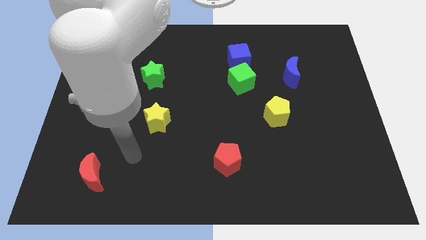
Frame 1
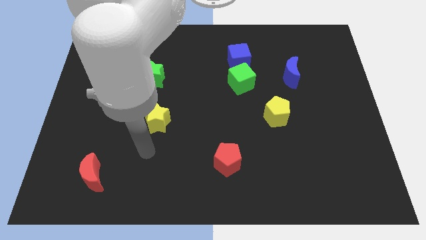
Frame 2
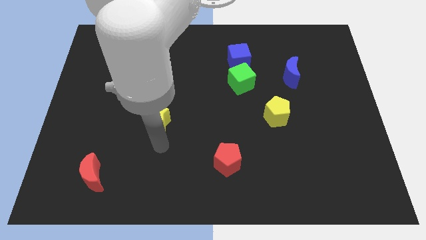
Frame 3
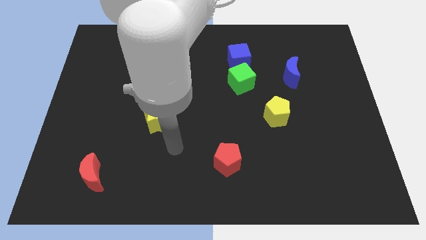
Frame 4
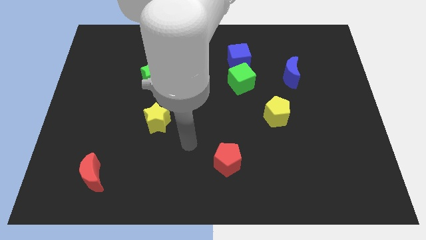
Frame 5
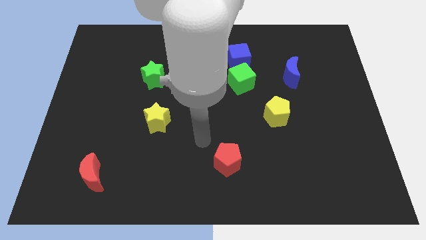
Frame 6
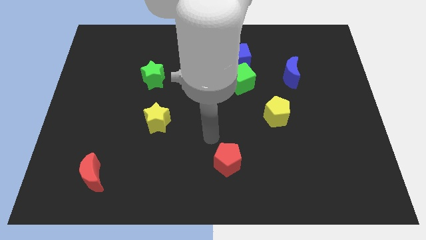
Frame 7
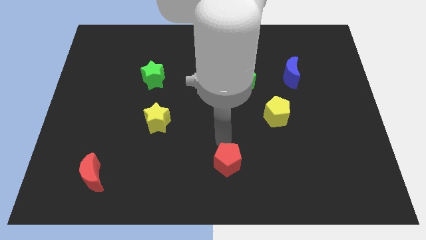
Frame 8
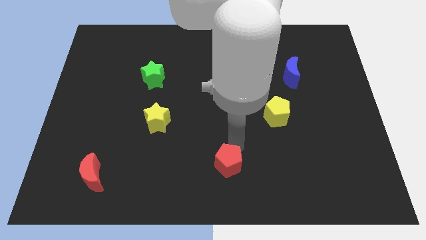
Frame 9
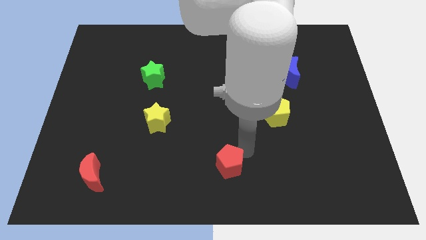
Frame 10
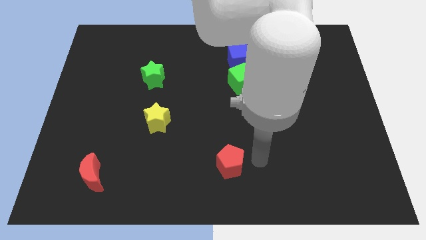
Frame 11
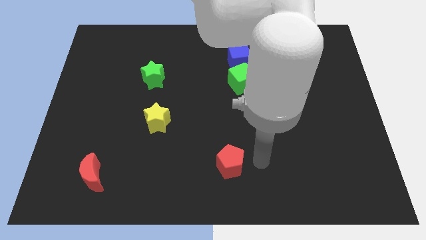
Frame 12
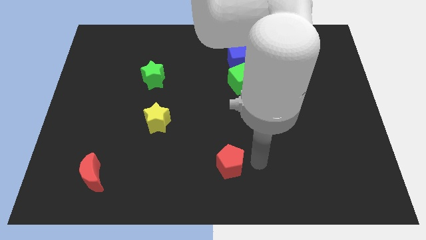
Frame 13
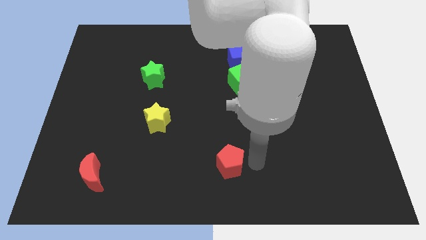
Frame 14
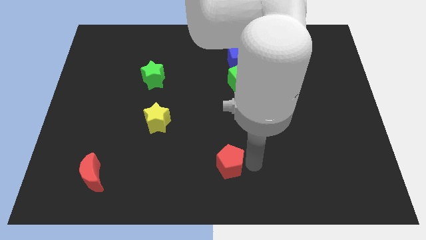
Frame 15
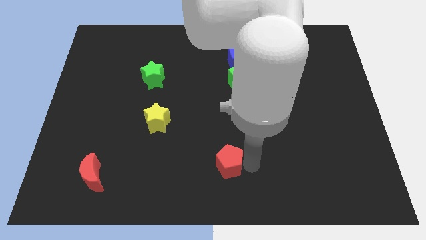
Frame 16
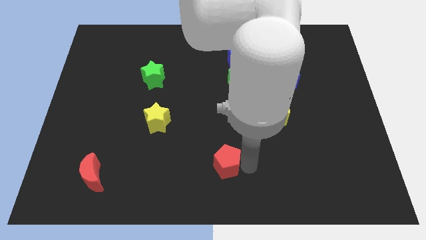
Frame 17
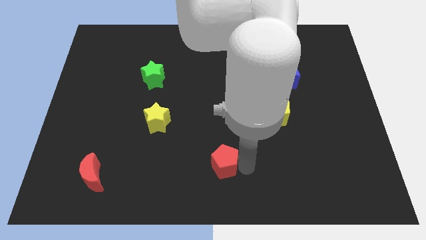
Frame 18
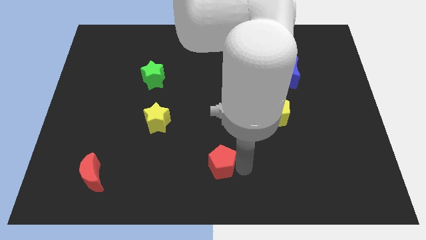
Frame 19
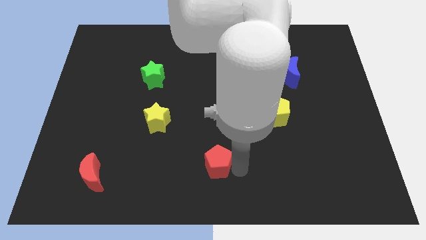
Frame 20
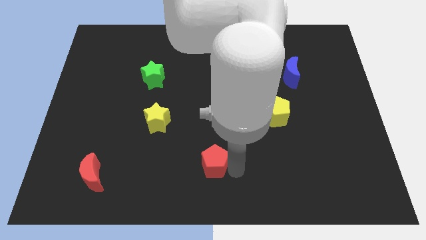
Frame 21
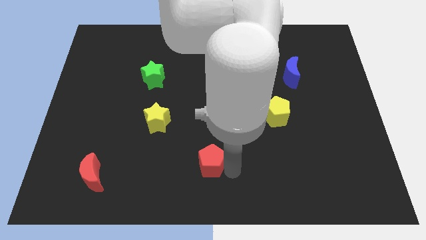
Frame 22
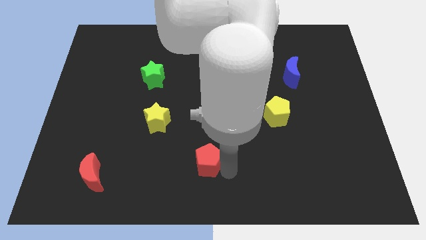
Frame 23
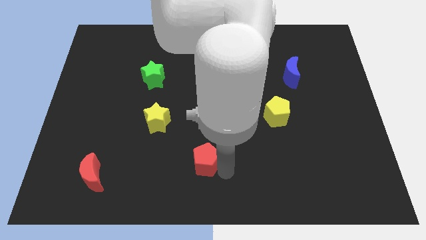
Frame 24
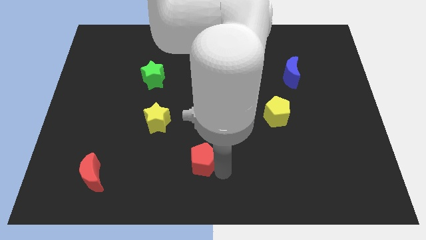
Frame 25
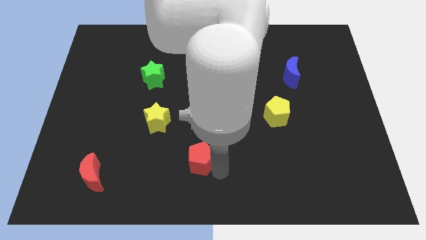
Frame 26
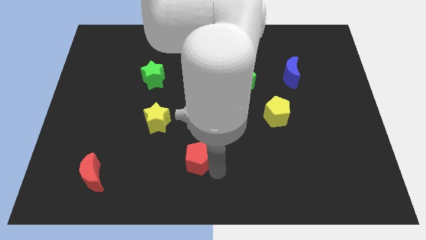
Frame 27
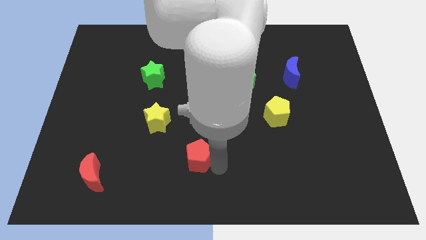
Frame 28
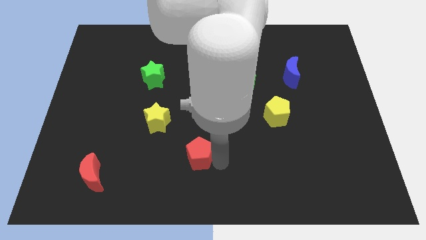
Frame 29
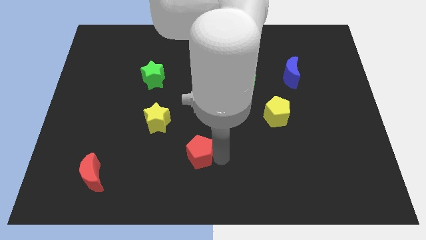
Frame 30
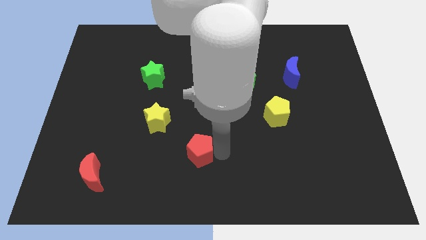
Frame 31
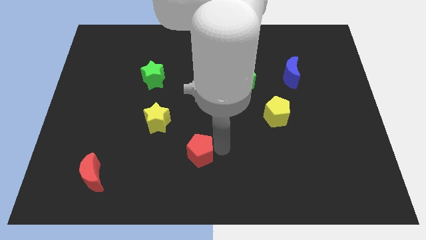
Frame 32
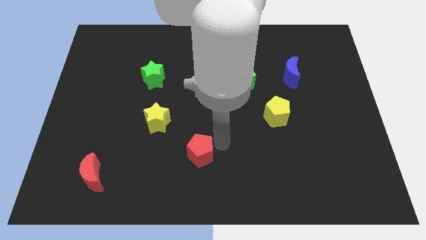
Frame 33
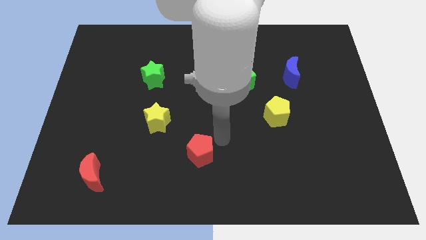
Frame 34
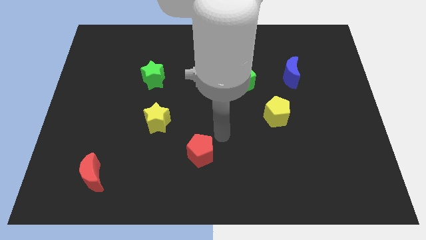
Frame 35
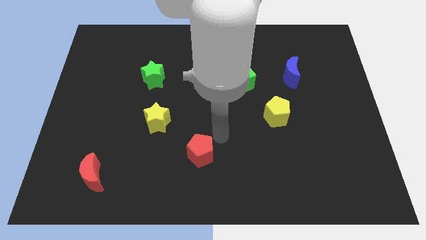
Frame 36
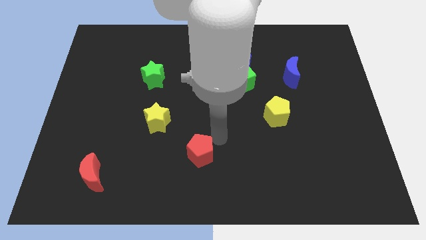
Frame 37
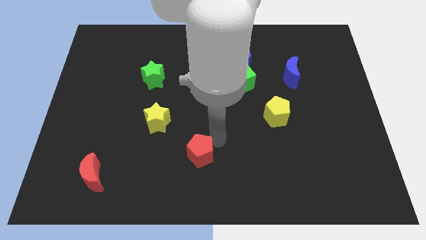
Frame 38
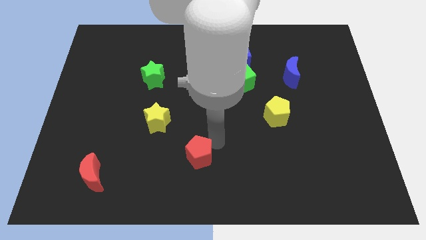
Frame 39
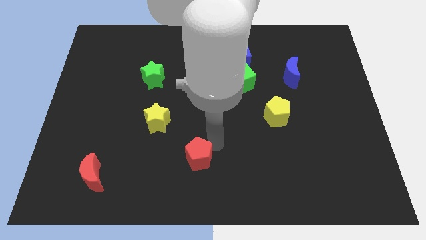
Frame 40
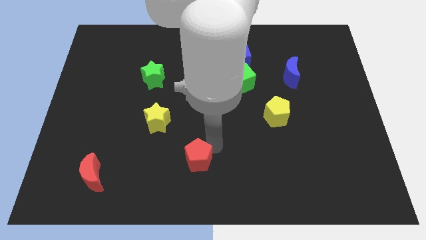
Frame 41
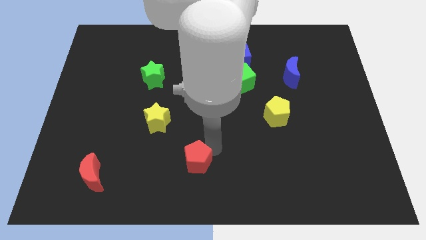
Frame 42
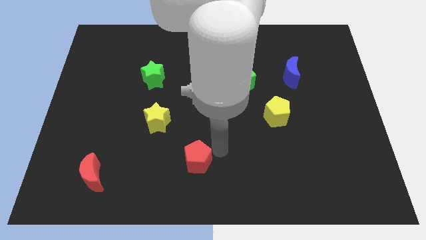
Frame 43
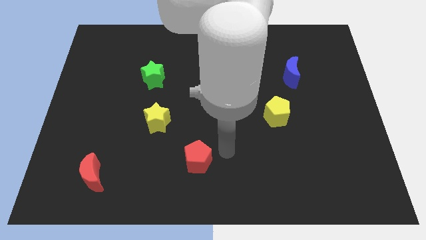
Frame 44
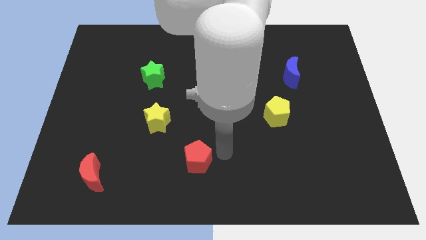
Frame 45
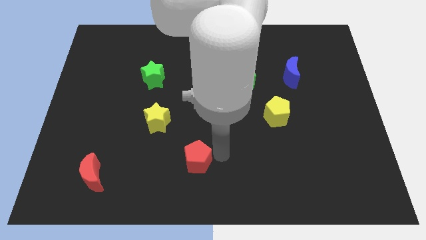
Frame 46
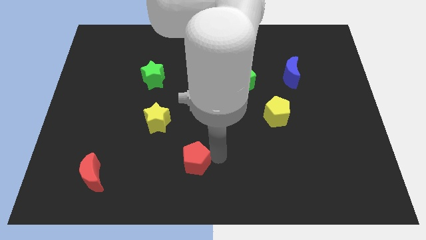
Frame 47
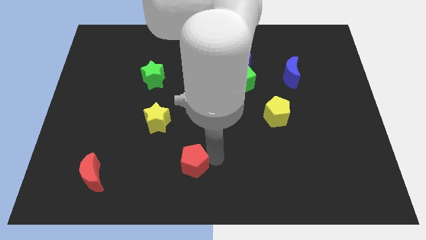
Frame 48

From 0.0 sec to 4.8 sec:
move the red pentagon a little bit left

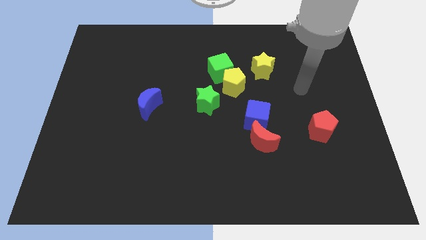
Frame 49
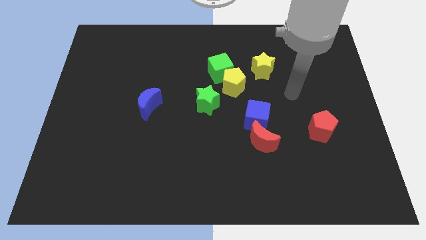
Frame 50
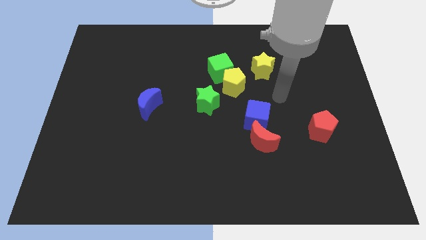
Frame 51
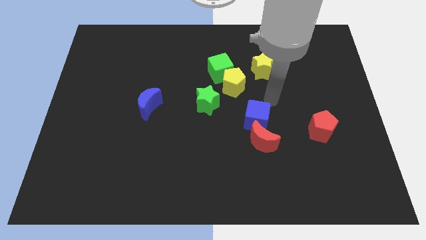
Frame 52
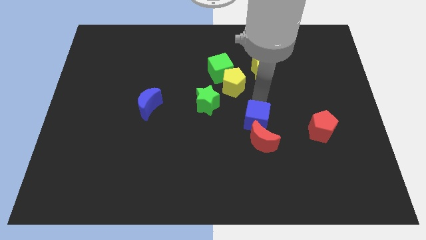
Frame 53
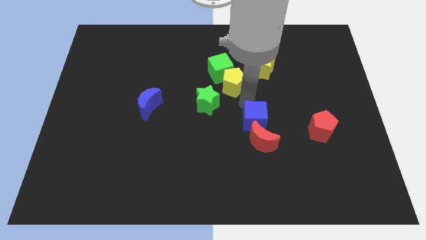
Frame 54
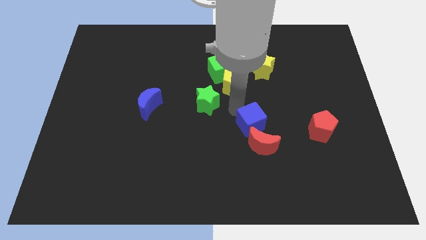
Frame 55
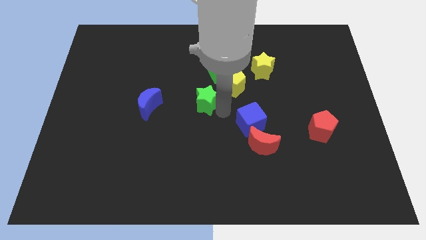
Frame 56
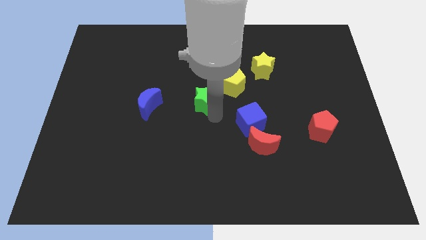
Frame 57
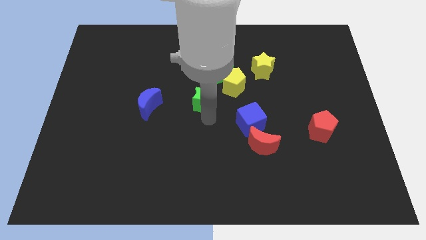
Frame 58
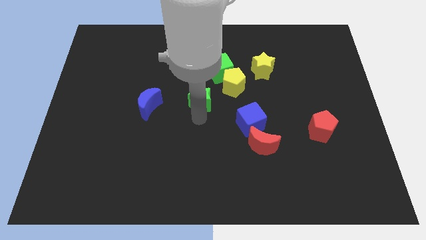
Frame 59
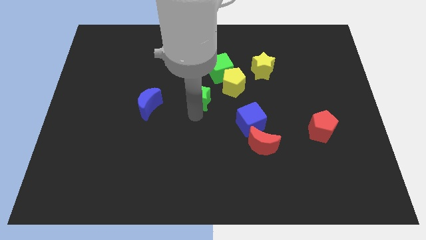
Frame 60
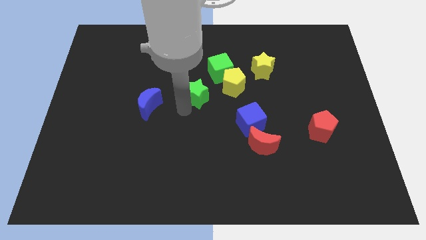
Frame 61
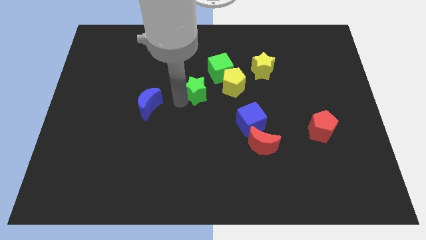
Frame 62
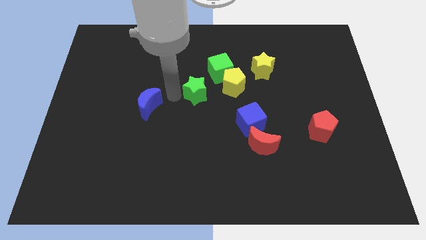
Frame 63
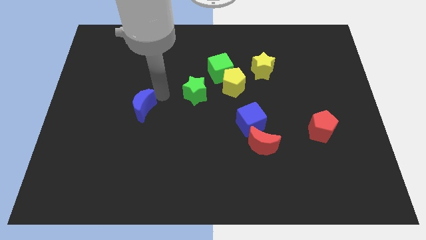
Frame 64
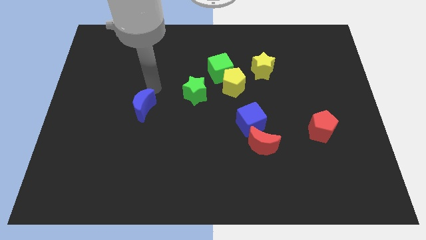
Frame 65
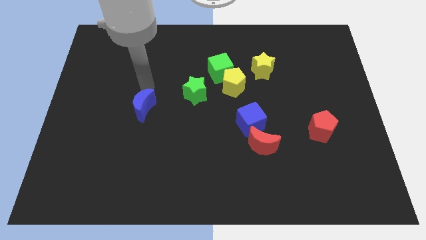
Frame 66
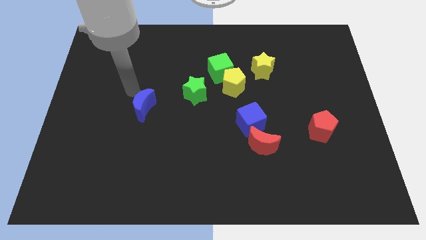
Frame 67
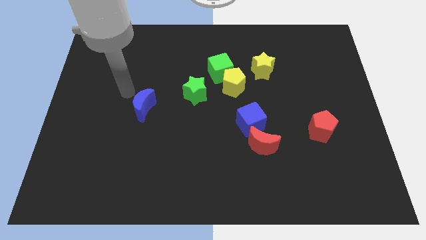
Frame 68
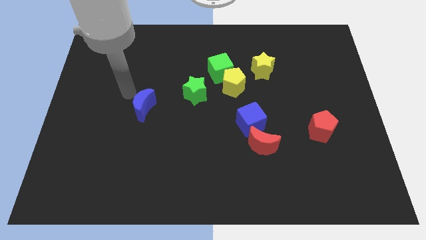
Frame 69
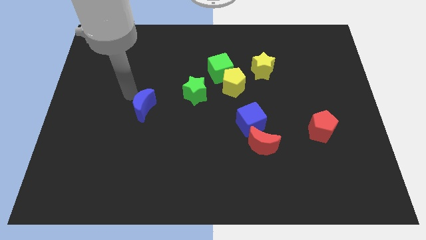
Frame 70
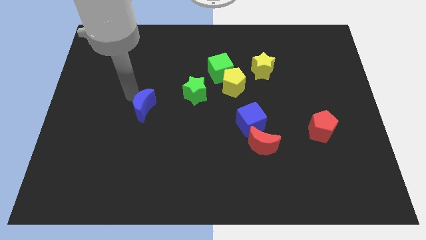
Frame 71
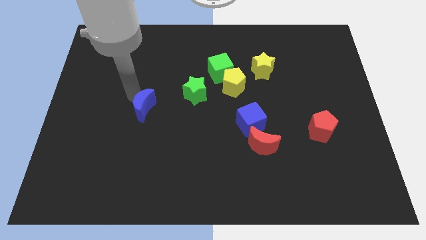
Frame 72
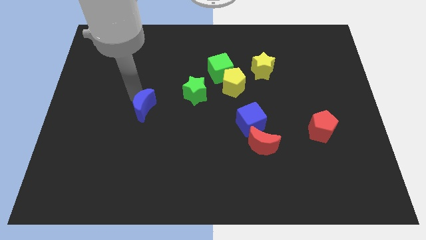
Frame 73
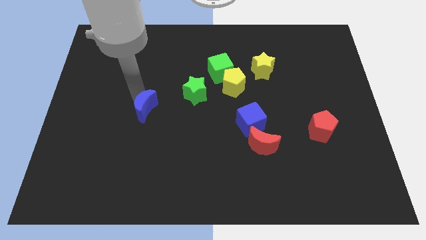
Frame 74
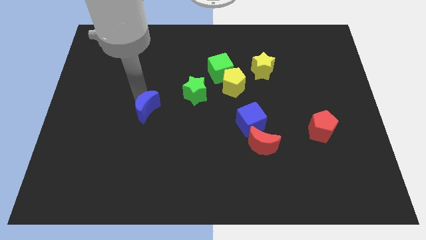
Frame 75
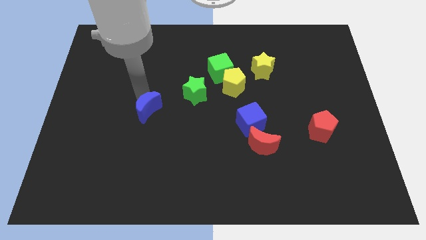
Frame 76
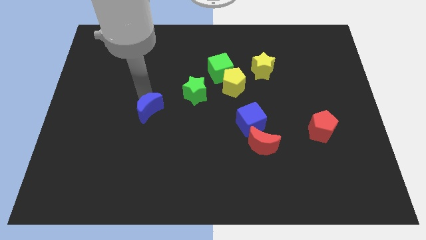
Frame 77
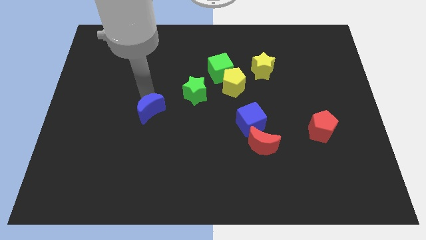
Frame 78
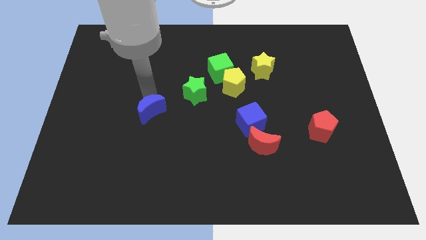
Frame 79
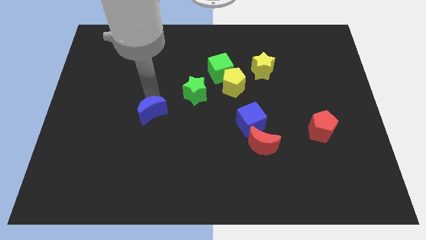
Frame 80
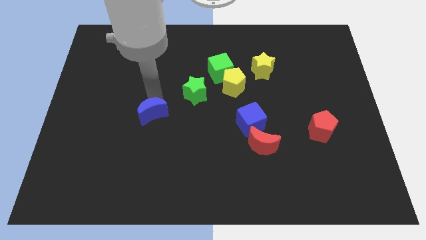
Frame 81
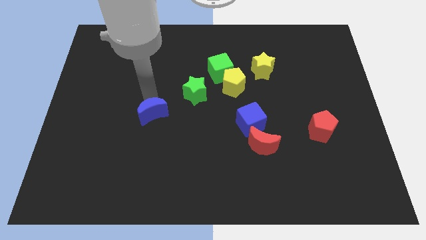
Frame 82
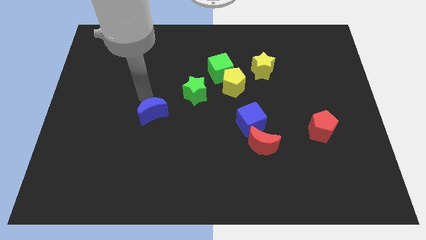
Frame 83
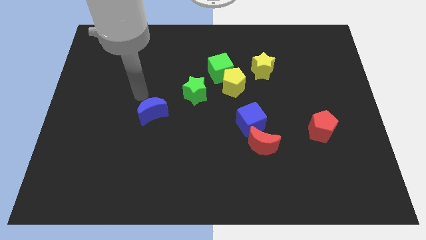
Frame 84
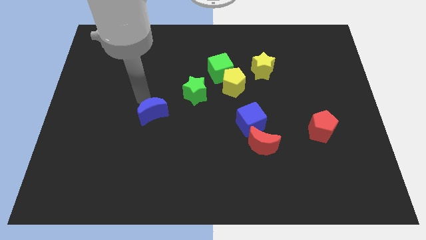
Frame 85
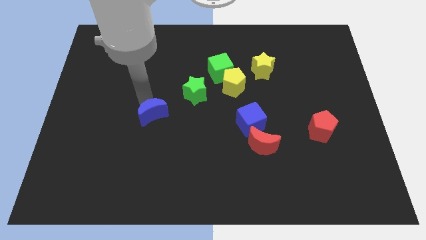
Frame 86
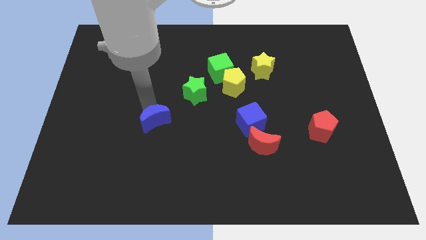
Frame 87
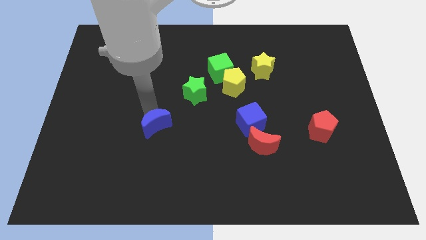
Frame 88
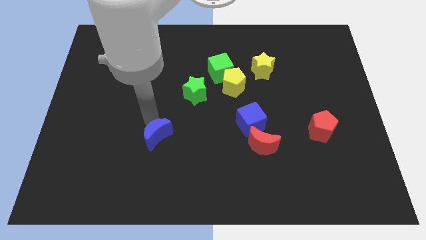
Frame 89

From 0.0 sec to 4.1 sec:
slightly move the blue moon diagonally down and to the right
